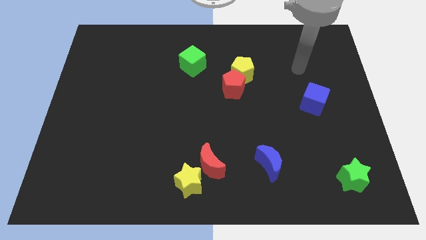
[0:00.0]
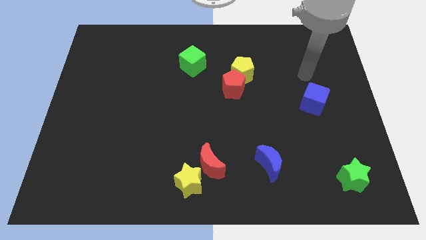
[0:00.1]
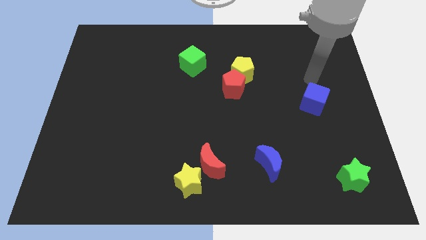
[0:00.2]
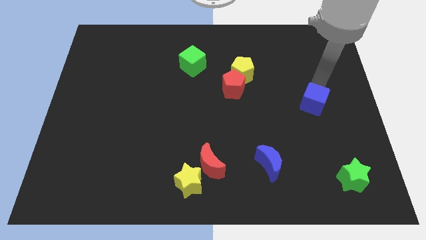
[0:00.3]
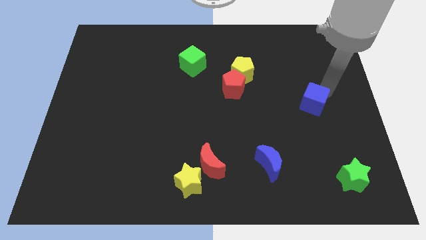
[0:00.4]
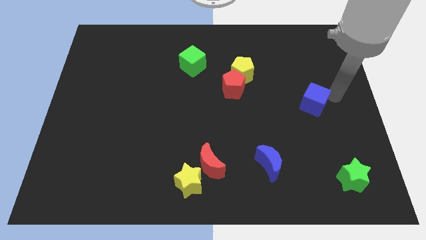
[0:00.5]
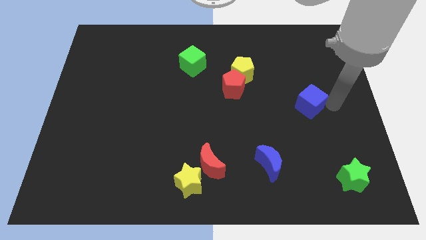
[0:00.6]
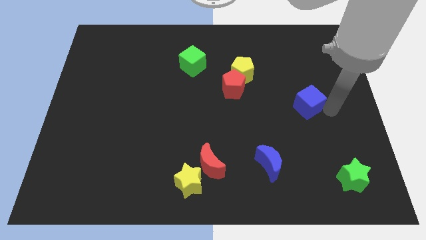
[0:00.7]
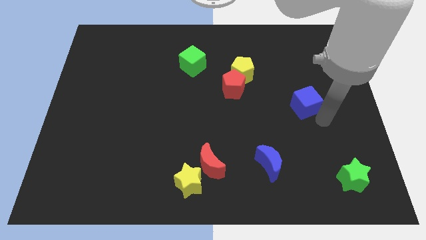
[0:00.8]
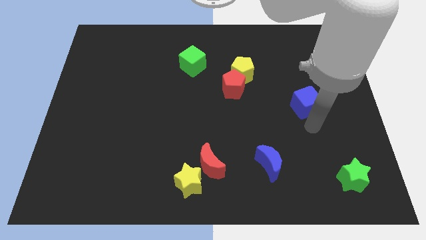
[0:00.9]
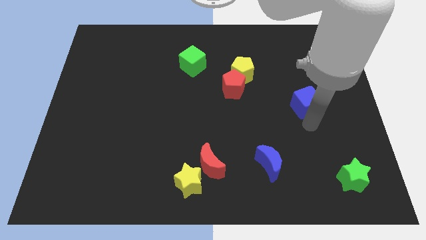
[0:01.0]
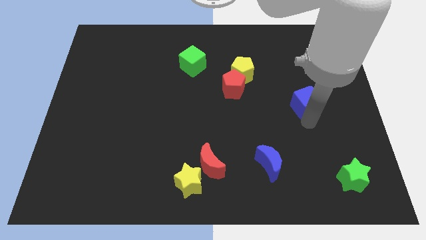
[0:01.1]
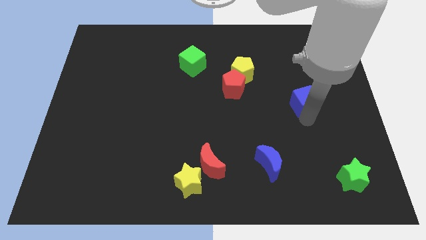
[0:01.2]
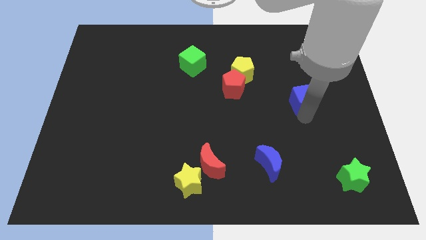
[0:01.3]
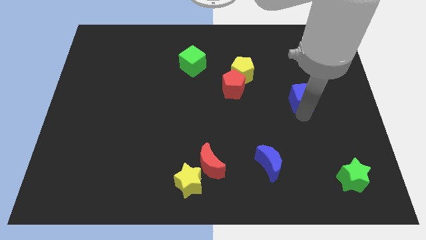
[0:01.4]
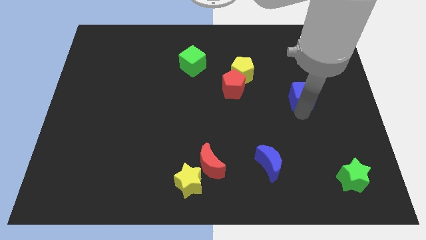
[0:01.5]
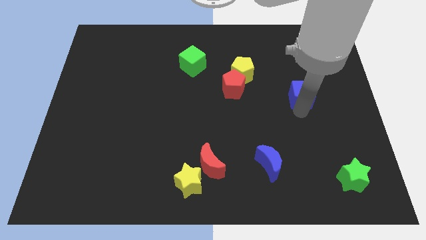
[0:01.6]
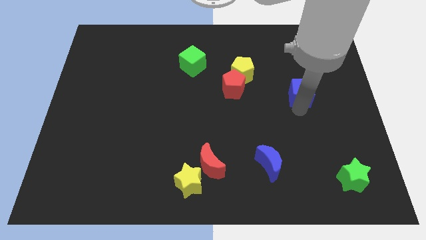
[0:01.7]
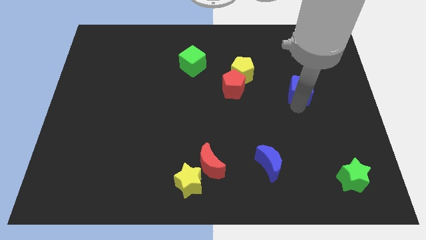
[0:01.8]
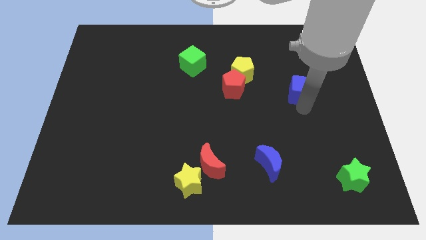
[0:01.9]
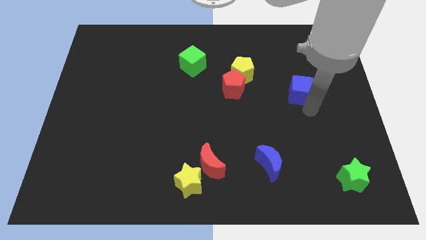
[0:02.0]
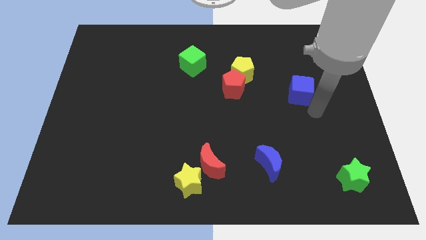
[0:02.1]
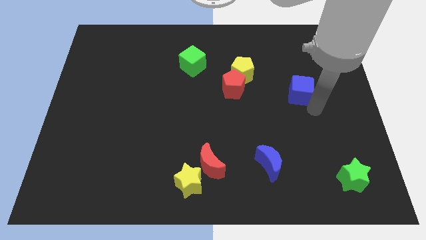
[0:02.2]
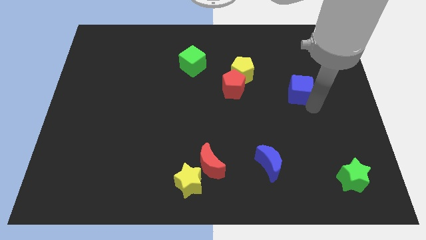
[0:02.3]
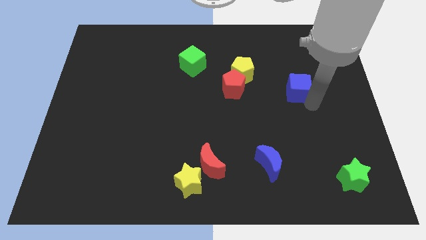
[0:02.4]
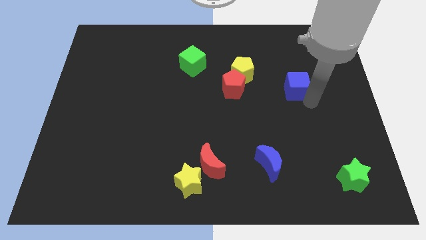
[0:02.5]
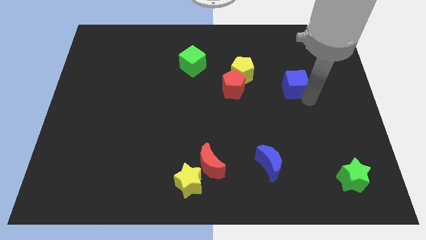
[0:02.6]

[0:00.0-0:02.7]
put the blue cube right of the yellow pentagon

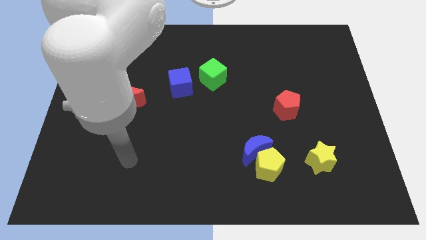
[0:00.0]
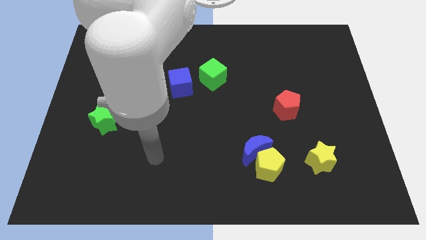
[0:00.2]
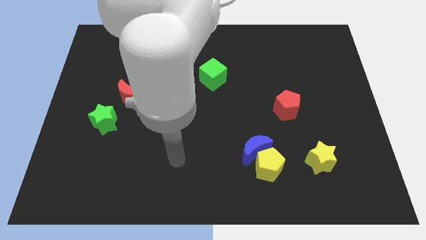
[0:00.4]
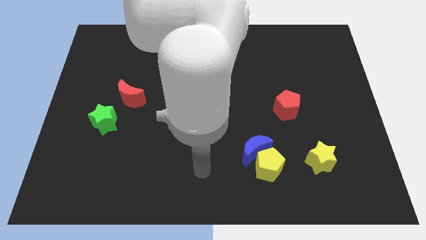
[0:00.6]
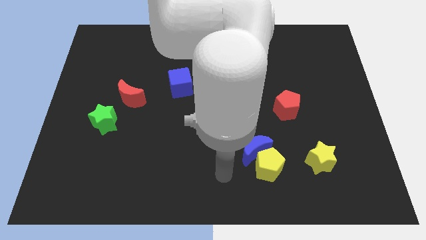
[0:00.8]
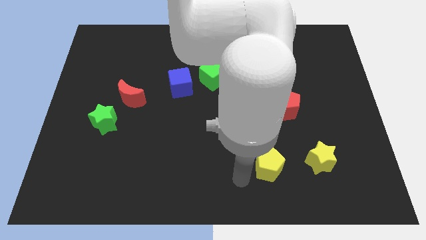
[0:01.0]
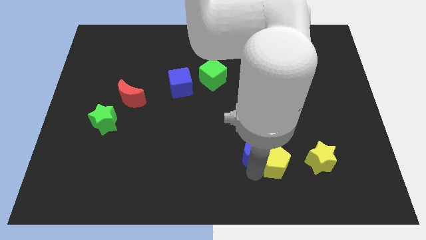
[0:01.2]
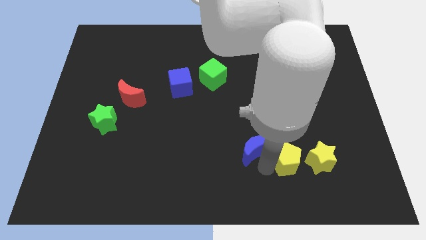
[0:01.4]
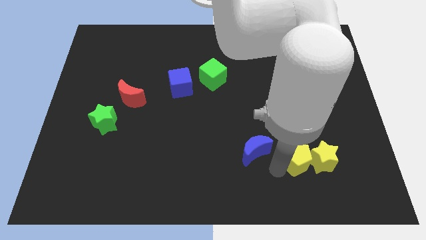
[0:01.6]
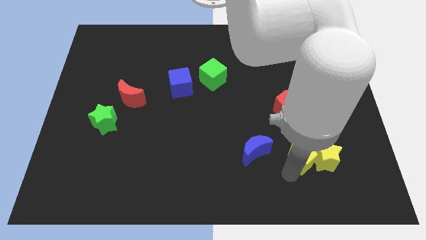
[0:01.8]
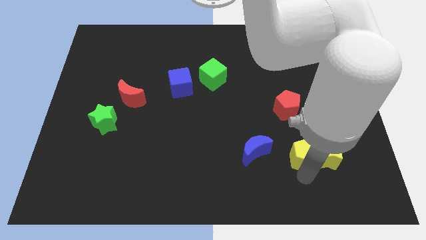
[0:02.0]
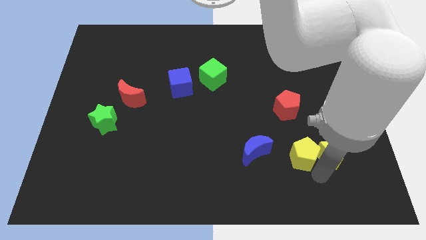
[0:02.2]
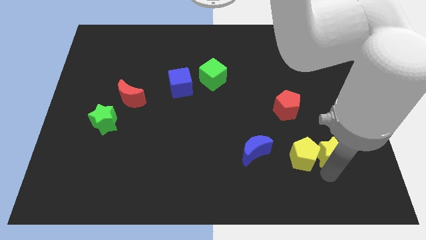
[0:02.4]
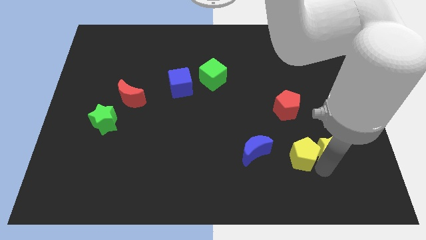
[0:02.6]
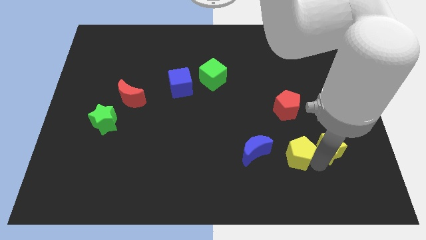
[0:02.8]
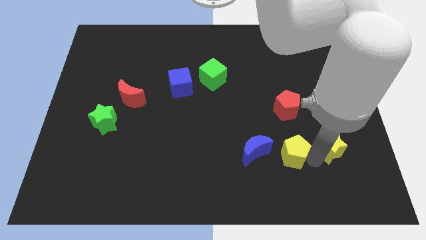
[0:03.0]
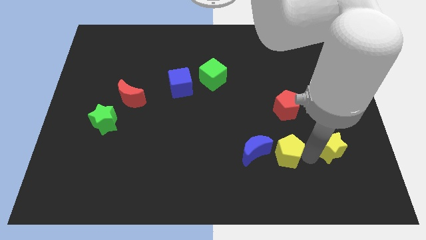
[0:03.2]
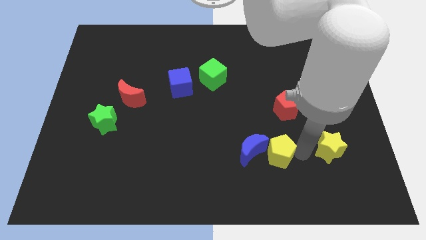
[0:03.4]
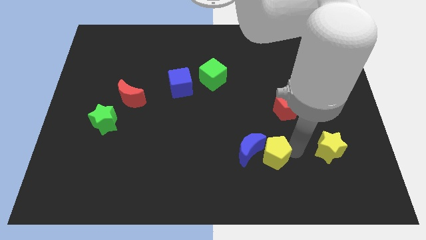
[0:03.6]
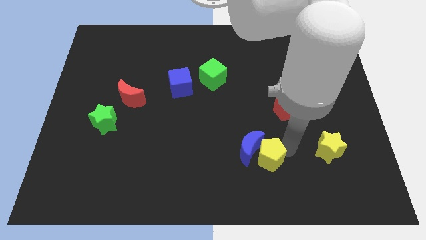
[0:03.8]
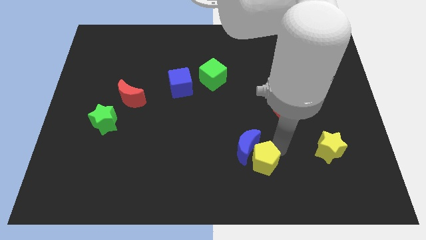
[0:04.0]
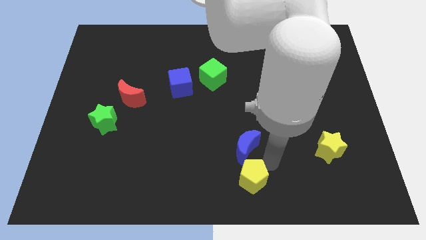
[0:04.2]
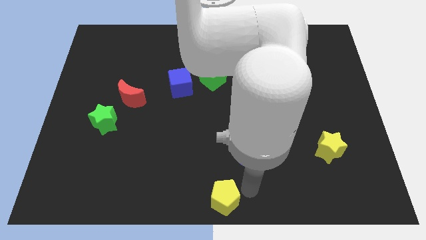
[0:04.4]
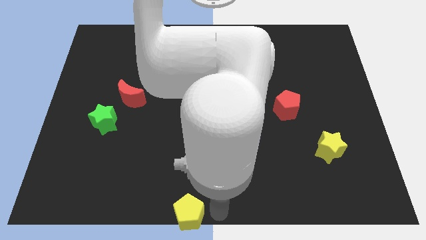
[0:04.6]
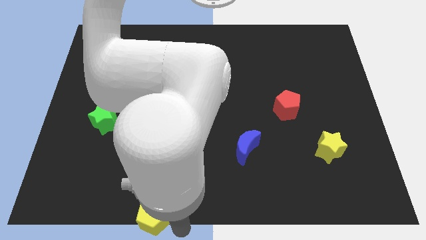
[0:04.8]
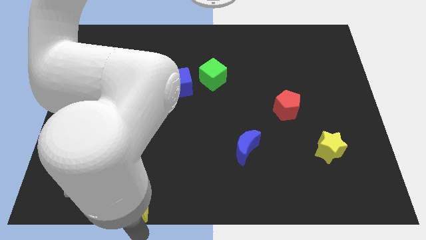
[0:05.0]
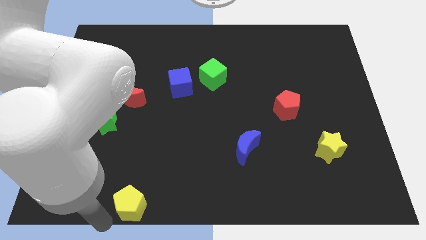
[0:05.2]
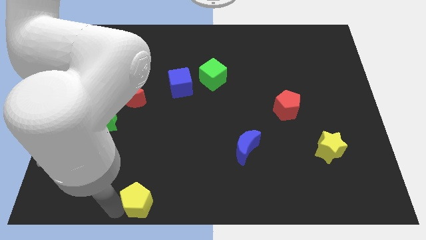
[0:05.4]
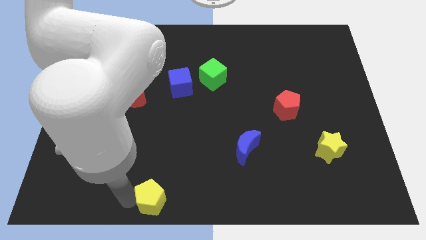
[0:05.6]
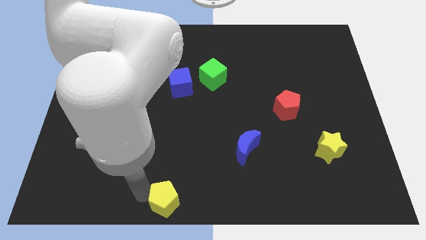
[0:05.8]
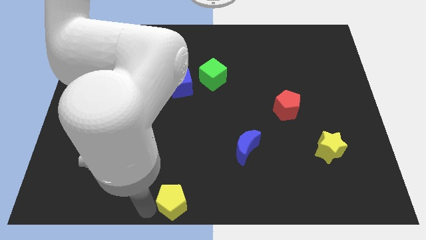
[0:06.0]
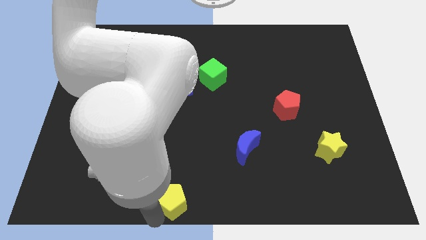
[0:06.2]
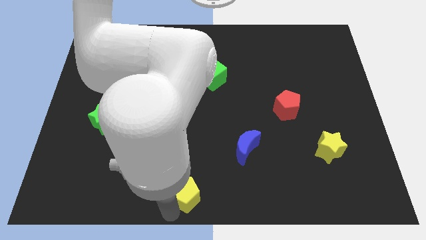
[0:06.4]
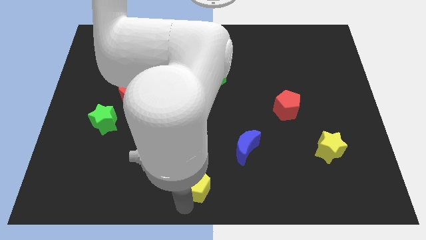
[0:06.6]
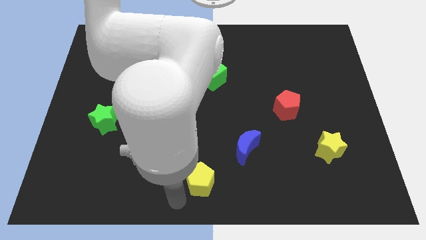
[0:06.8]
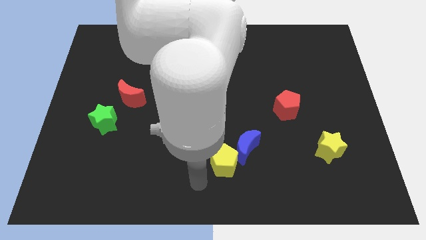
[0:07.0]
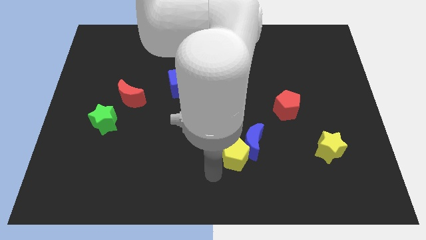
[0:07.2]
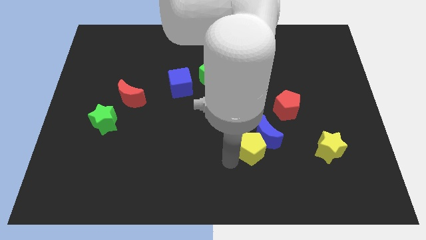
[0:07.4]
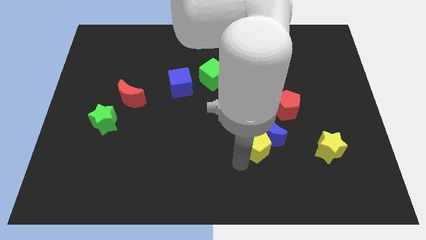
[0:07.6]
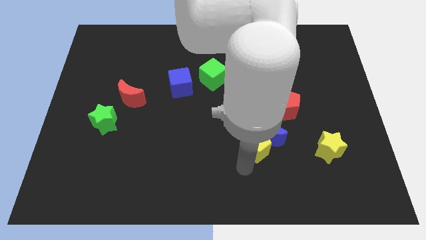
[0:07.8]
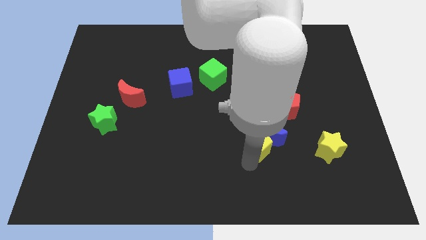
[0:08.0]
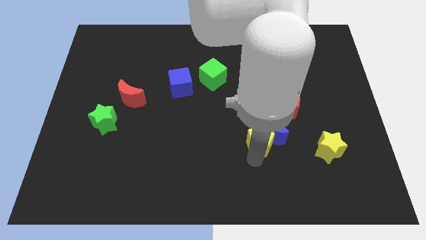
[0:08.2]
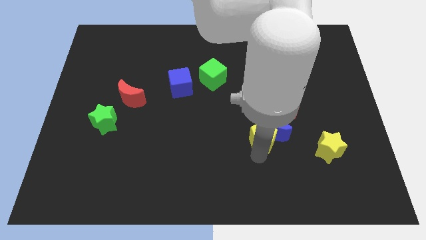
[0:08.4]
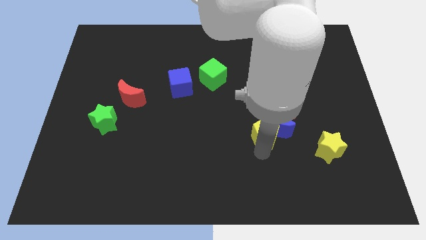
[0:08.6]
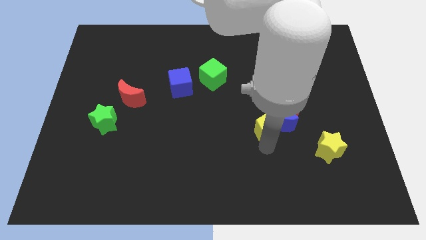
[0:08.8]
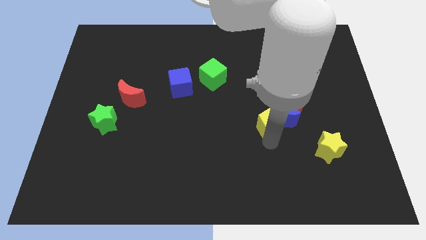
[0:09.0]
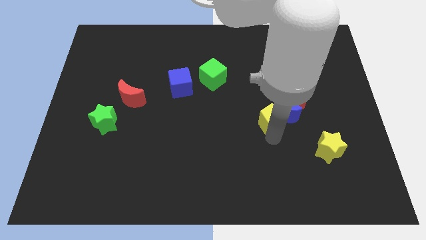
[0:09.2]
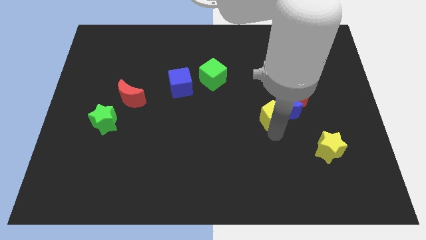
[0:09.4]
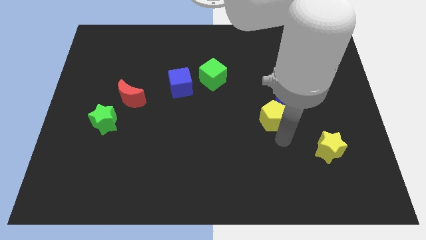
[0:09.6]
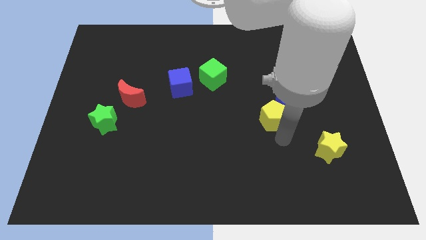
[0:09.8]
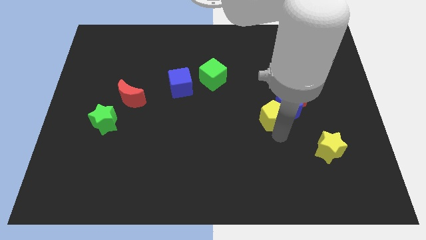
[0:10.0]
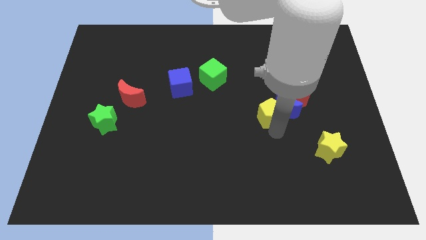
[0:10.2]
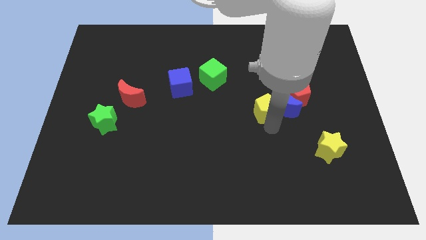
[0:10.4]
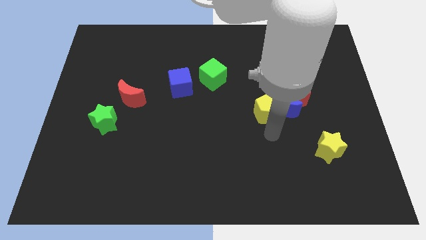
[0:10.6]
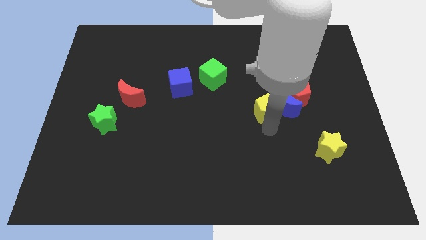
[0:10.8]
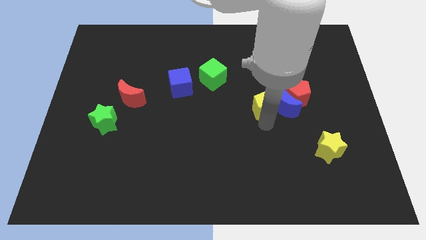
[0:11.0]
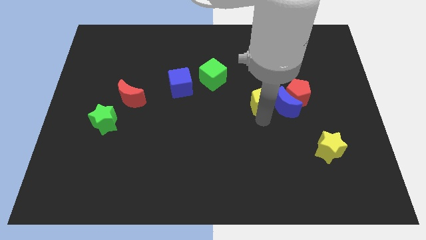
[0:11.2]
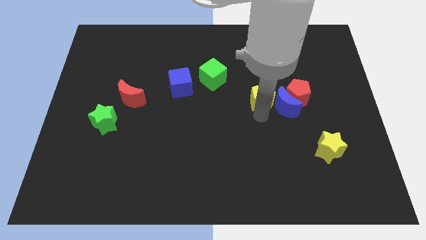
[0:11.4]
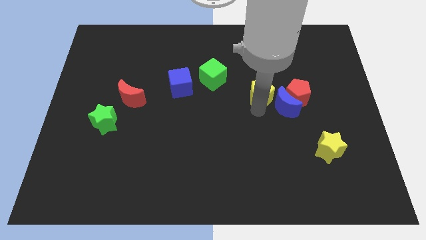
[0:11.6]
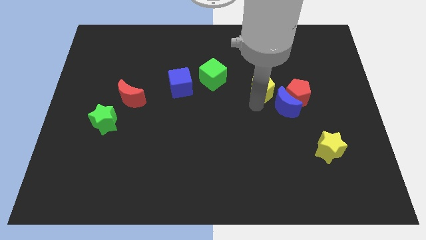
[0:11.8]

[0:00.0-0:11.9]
slide the yellow pentagon just right of the green cube

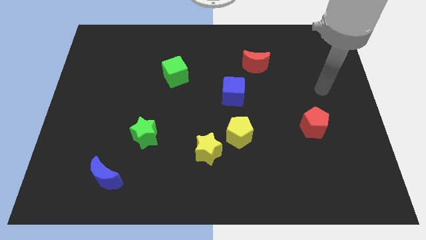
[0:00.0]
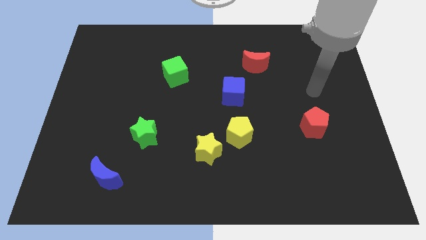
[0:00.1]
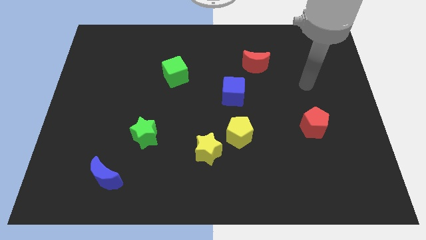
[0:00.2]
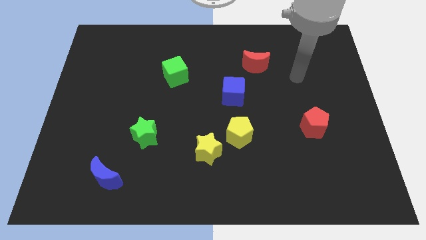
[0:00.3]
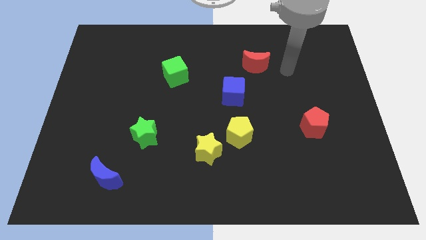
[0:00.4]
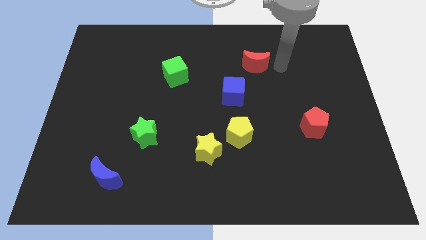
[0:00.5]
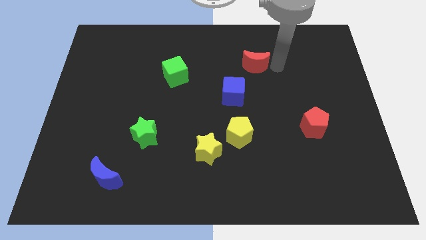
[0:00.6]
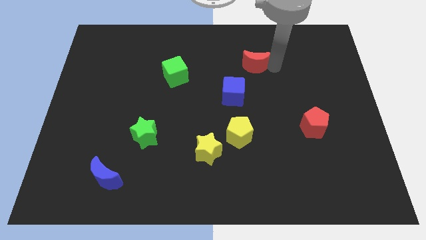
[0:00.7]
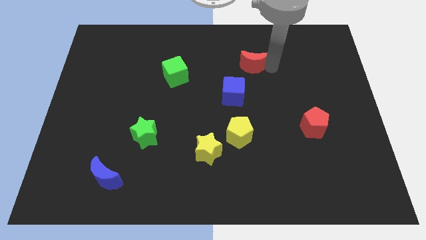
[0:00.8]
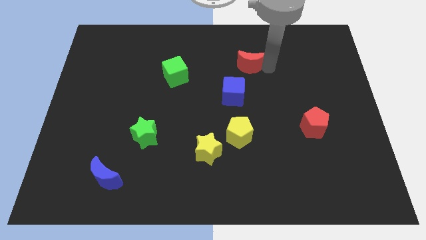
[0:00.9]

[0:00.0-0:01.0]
put the red moon to the top of the blue cube
